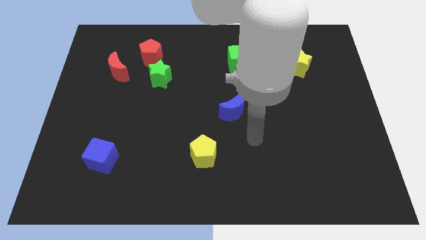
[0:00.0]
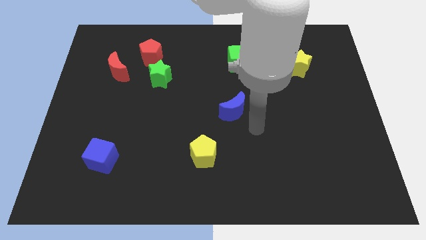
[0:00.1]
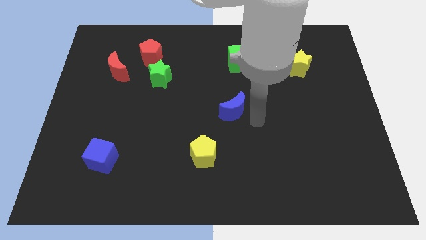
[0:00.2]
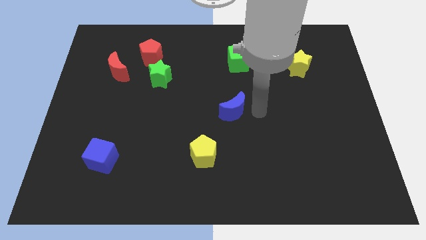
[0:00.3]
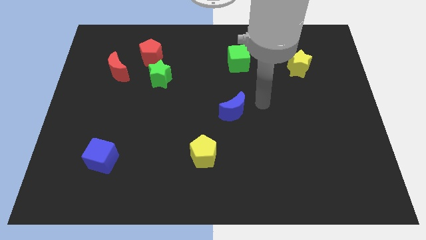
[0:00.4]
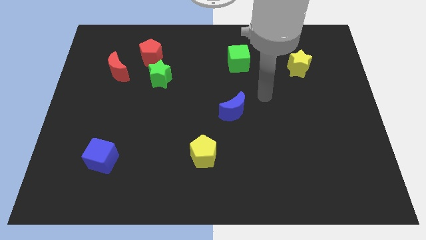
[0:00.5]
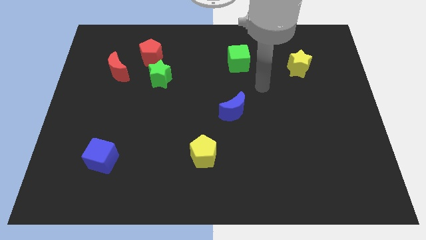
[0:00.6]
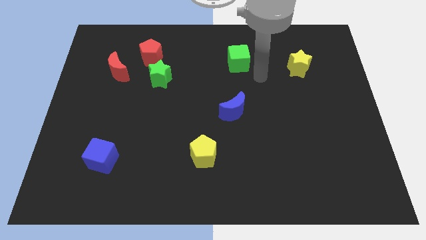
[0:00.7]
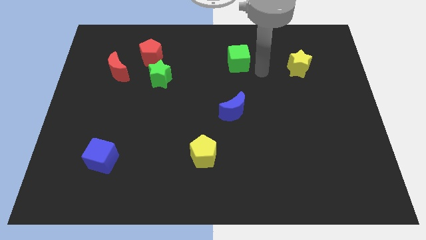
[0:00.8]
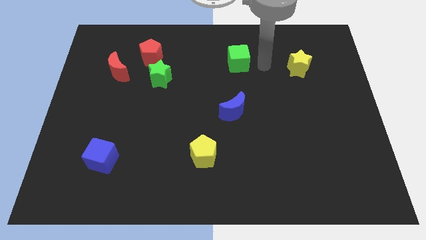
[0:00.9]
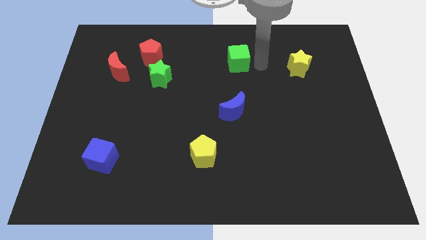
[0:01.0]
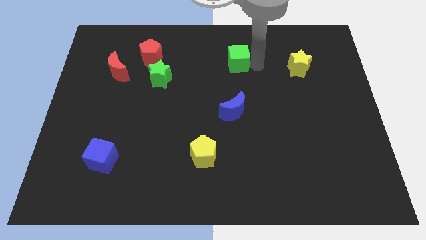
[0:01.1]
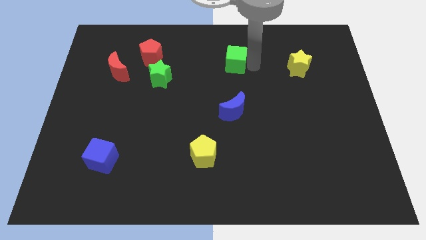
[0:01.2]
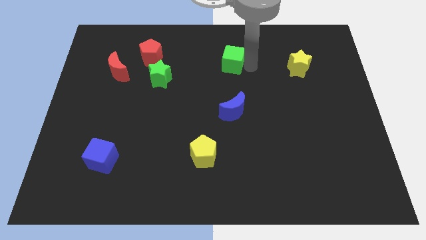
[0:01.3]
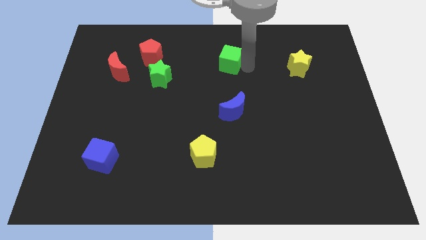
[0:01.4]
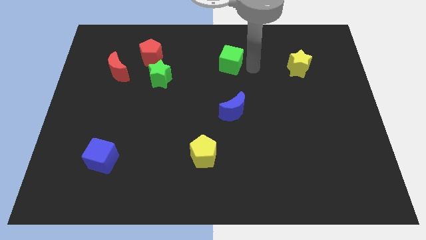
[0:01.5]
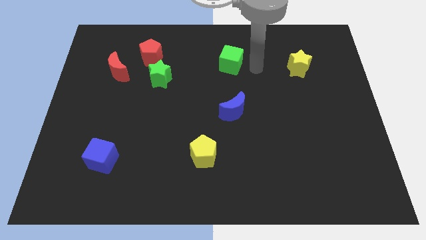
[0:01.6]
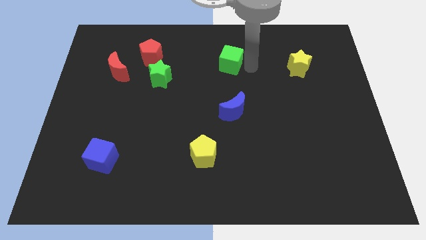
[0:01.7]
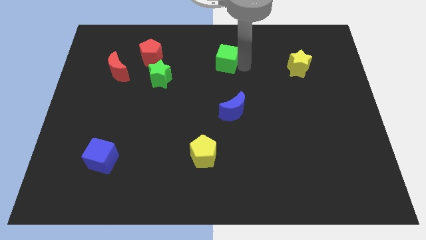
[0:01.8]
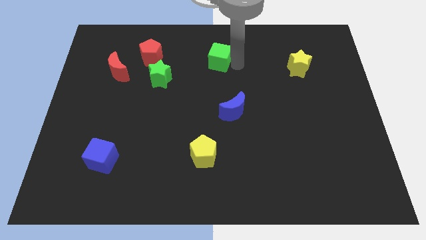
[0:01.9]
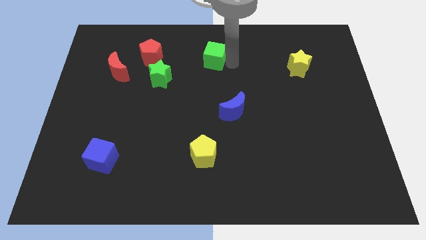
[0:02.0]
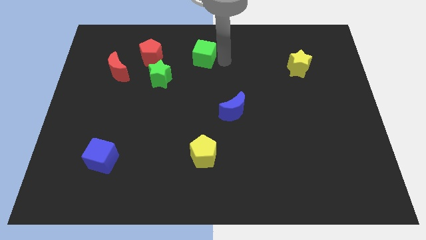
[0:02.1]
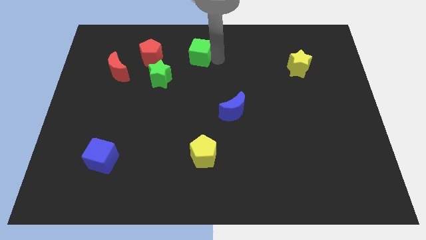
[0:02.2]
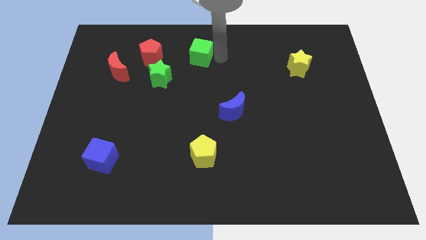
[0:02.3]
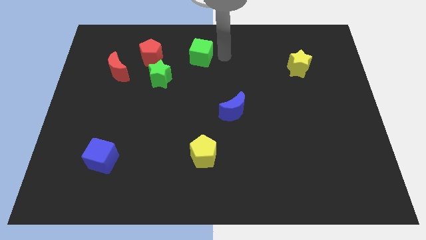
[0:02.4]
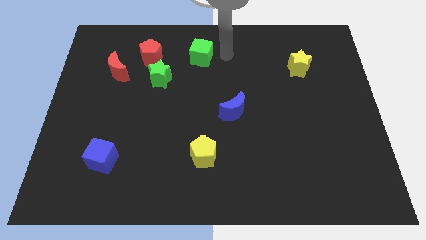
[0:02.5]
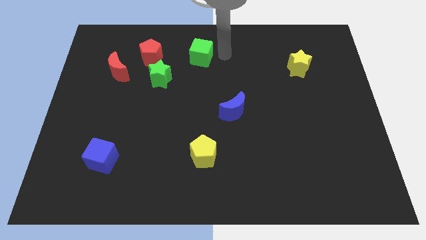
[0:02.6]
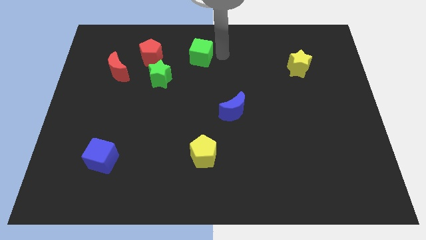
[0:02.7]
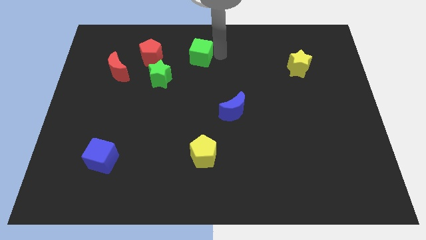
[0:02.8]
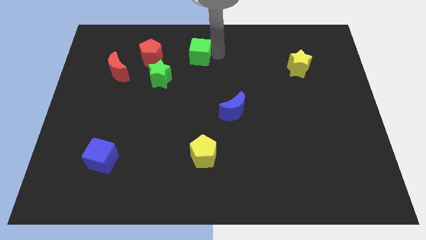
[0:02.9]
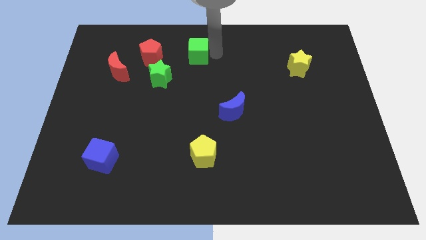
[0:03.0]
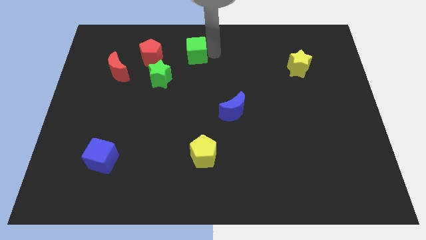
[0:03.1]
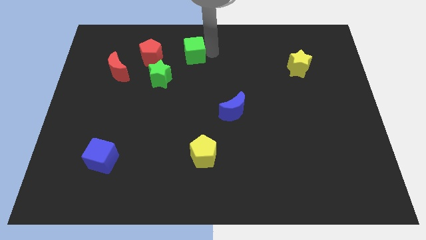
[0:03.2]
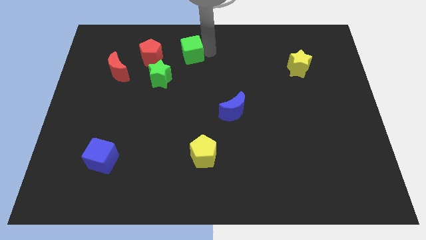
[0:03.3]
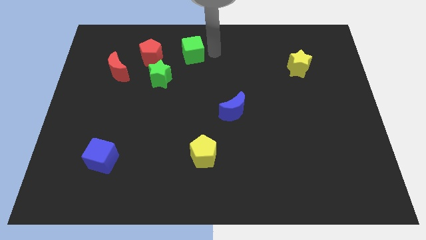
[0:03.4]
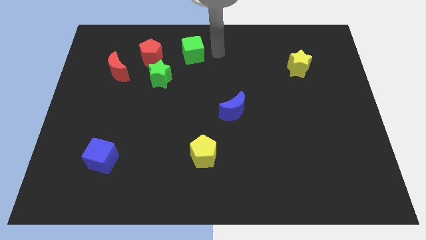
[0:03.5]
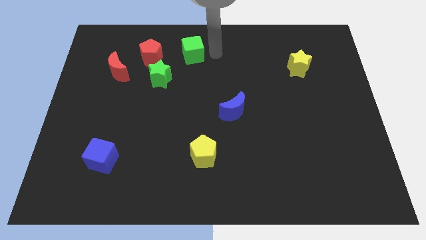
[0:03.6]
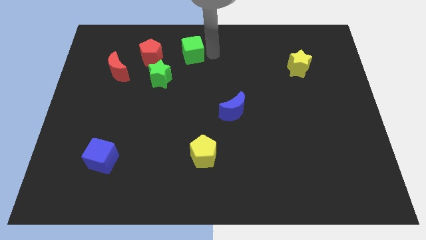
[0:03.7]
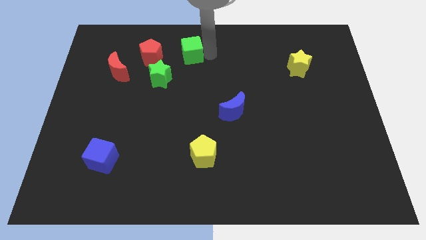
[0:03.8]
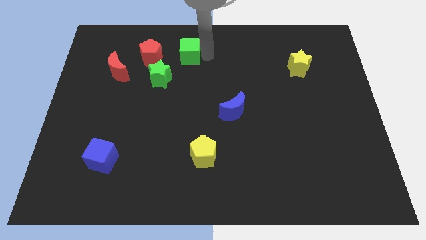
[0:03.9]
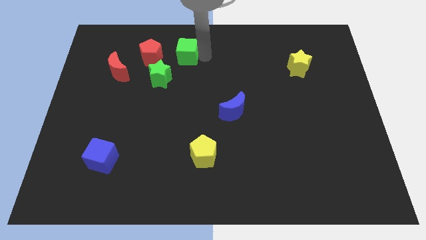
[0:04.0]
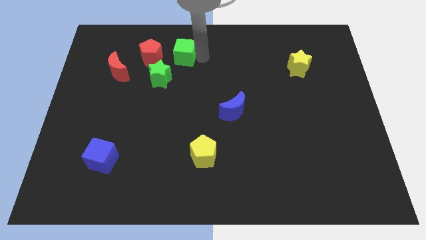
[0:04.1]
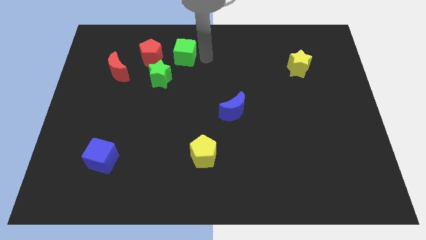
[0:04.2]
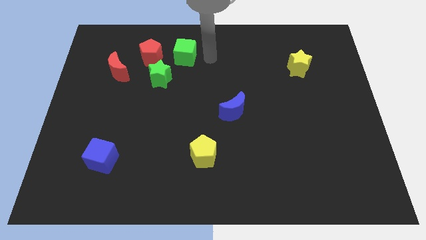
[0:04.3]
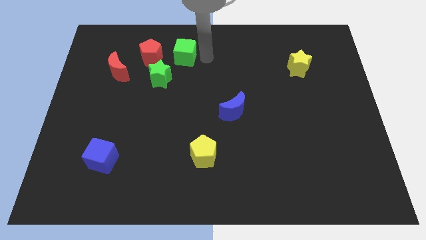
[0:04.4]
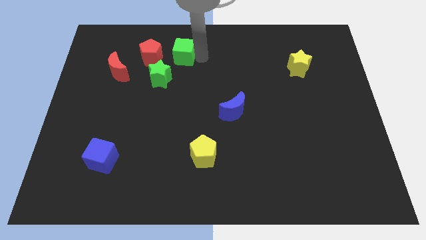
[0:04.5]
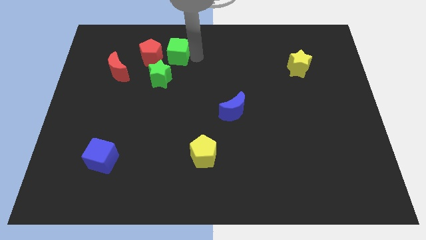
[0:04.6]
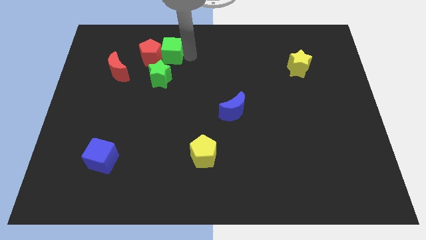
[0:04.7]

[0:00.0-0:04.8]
move the green cube next to the red pentagon

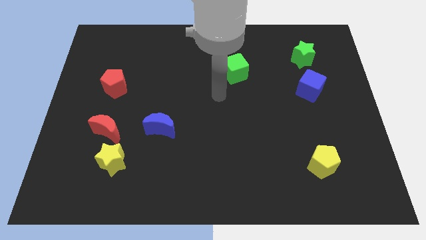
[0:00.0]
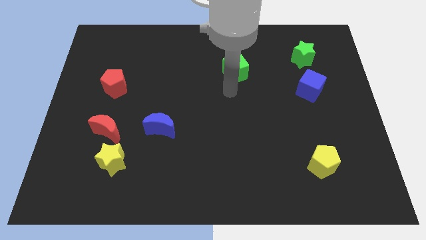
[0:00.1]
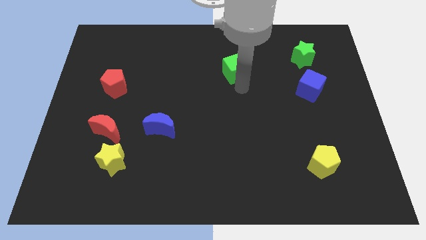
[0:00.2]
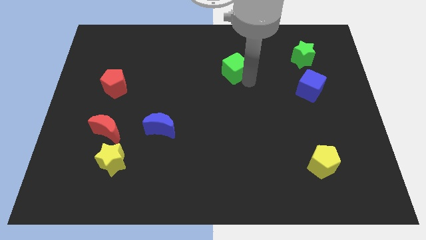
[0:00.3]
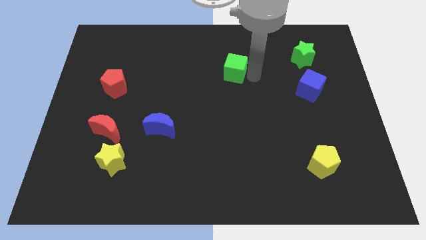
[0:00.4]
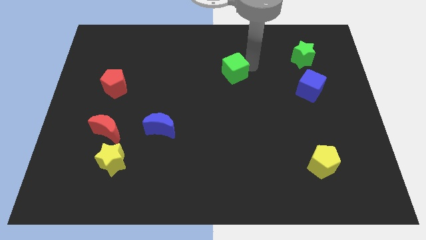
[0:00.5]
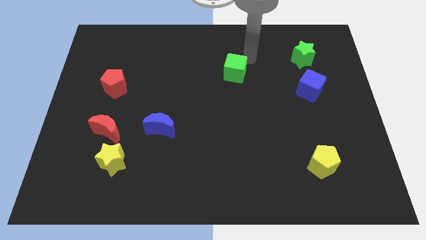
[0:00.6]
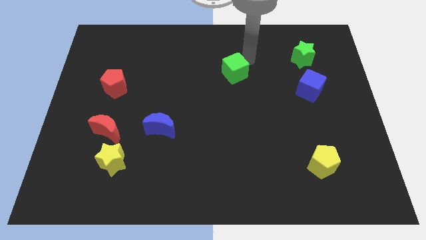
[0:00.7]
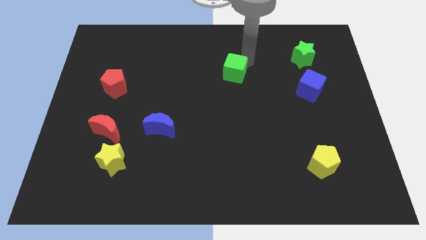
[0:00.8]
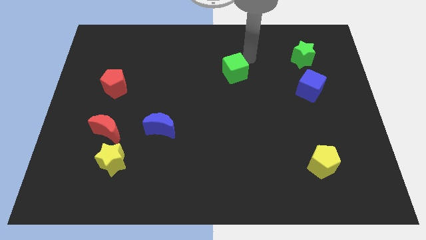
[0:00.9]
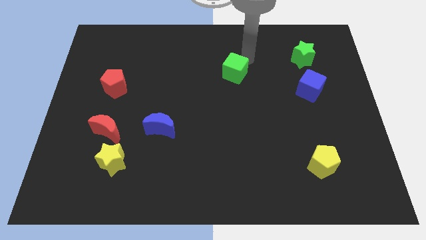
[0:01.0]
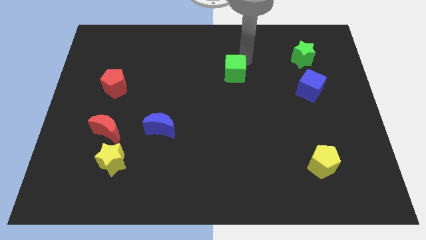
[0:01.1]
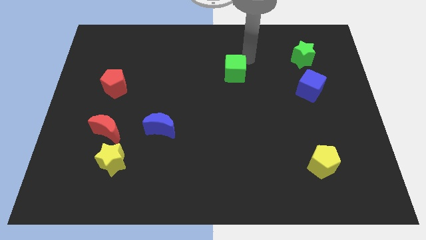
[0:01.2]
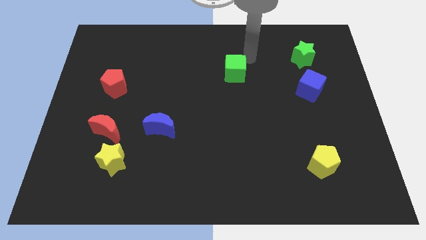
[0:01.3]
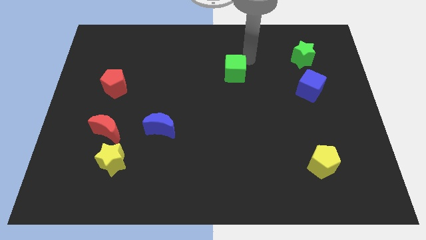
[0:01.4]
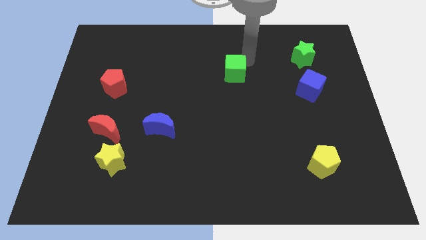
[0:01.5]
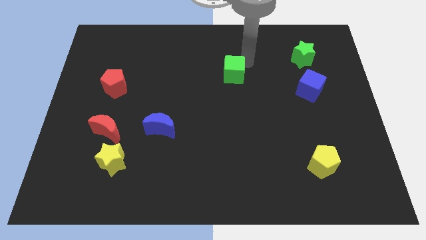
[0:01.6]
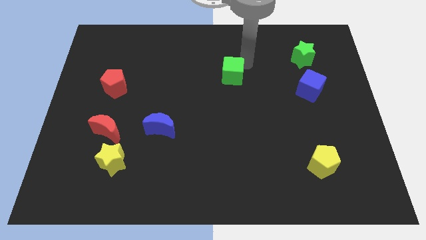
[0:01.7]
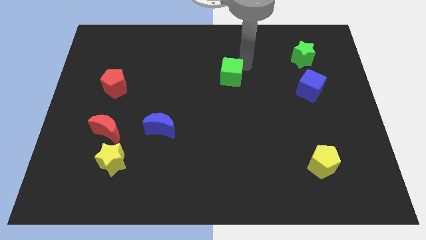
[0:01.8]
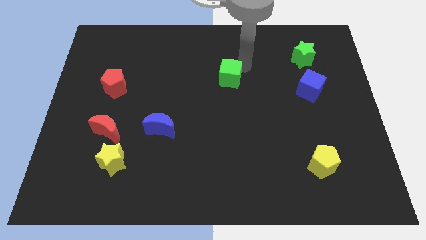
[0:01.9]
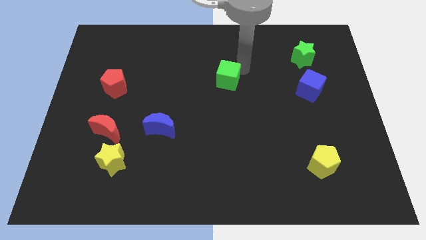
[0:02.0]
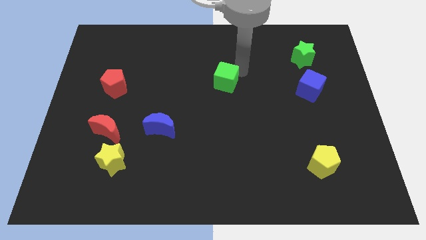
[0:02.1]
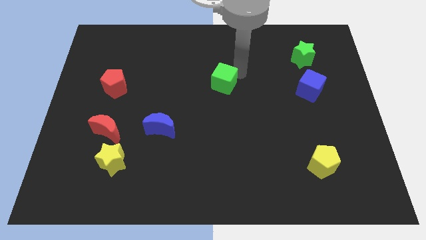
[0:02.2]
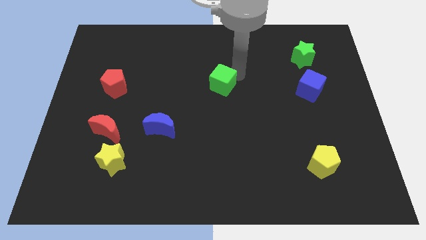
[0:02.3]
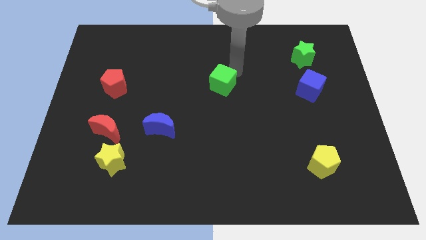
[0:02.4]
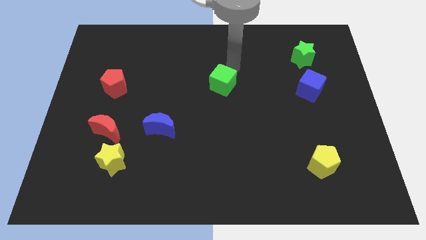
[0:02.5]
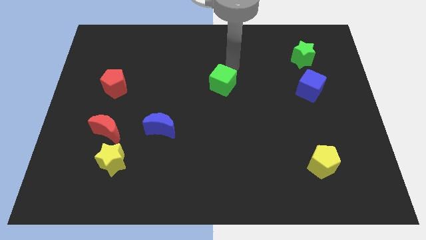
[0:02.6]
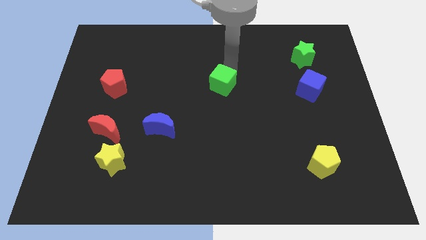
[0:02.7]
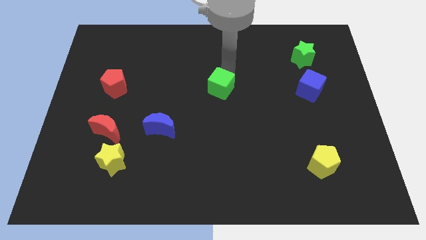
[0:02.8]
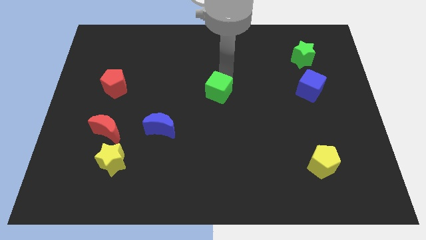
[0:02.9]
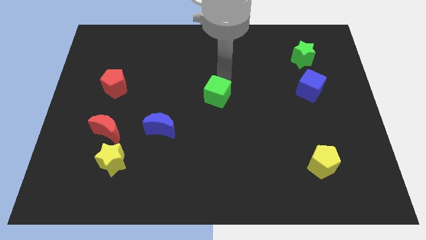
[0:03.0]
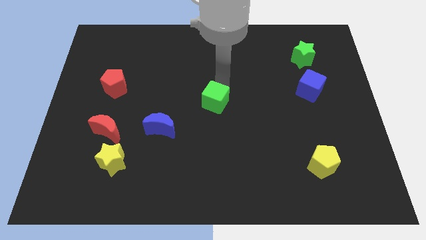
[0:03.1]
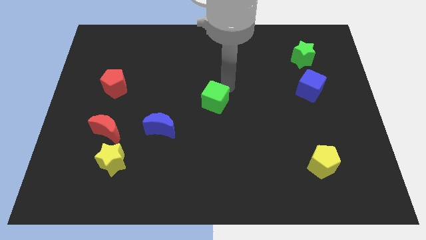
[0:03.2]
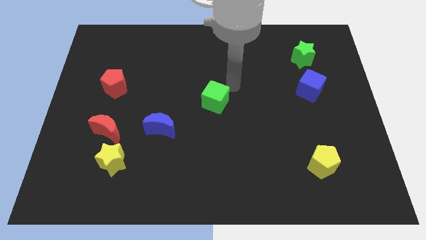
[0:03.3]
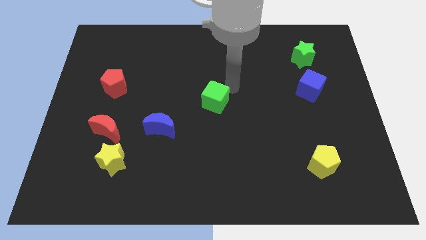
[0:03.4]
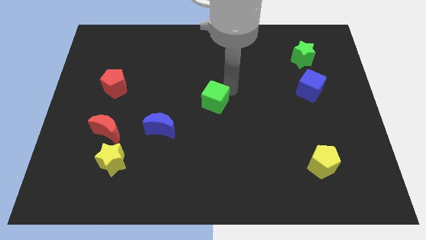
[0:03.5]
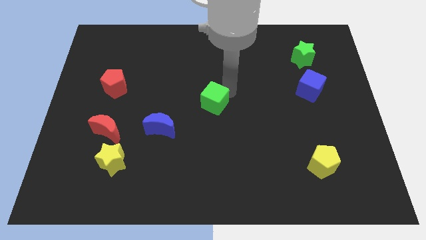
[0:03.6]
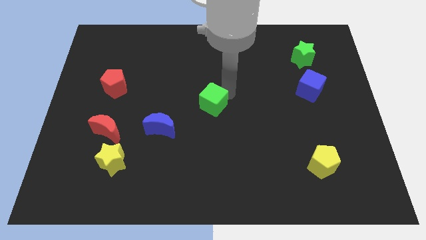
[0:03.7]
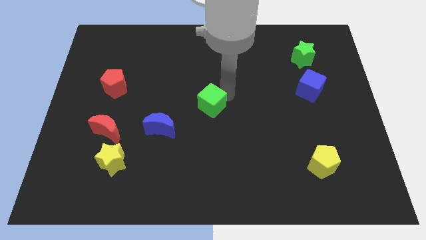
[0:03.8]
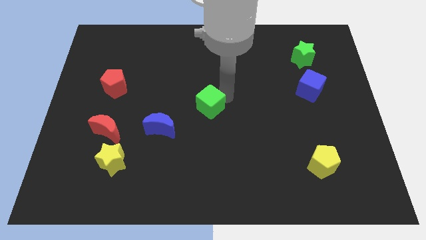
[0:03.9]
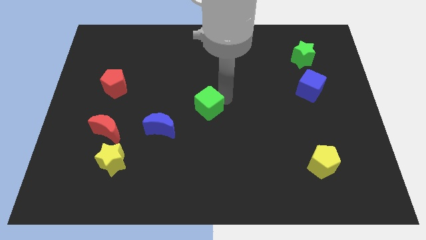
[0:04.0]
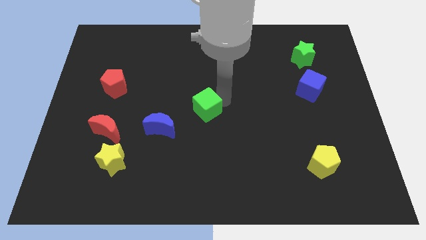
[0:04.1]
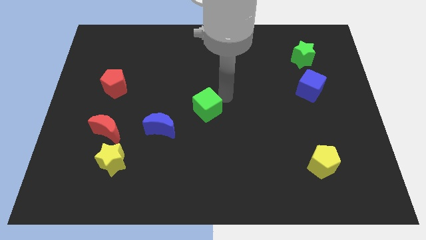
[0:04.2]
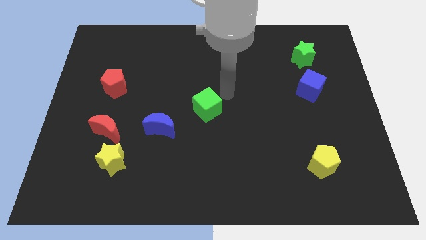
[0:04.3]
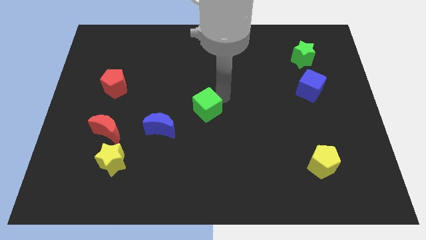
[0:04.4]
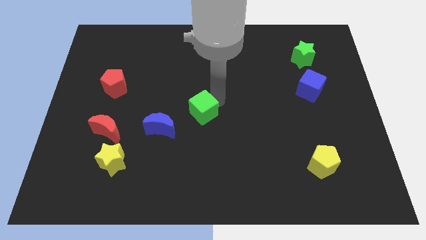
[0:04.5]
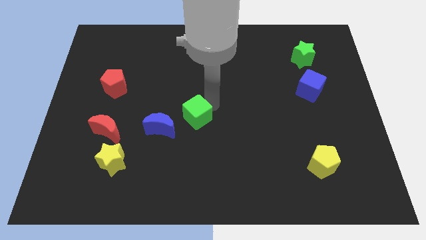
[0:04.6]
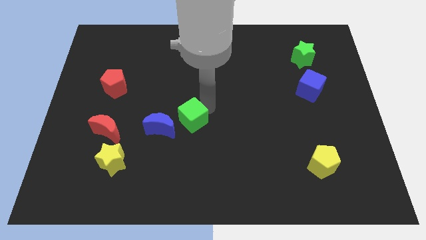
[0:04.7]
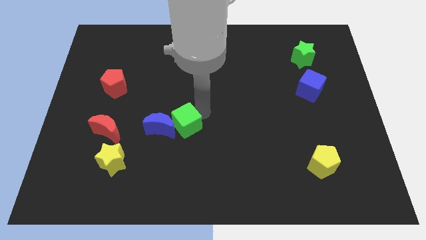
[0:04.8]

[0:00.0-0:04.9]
slide the green cube close to the blue moon
